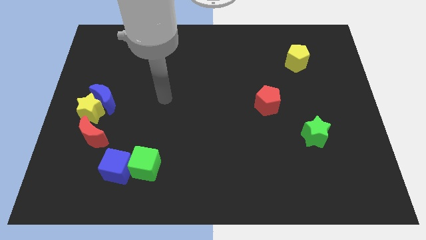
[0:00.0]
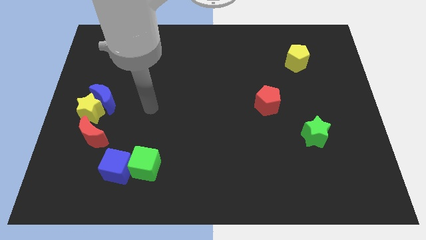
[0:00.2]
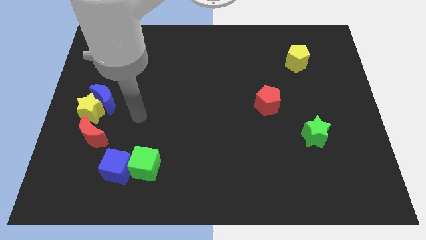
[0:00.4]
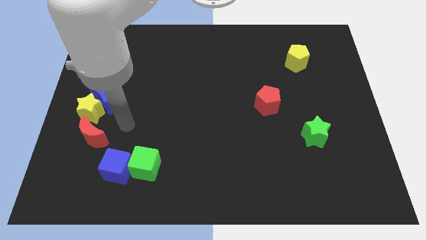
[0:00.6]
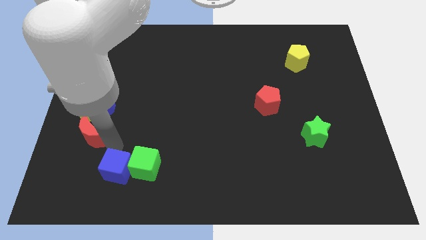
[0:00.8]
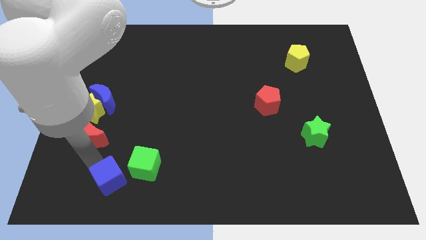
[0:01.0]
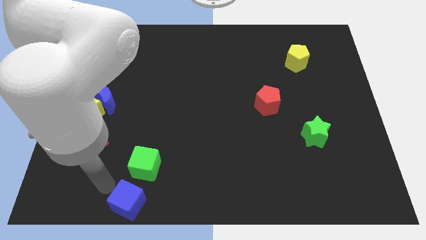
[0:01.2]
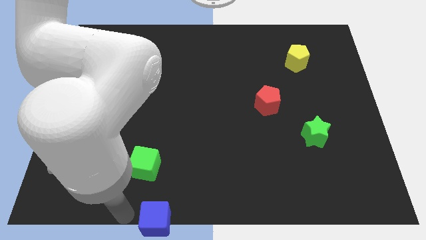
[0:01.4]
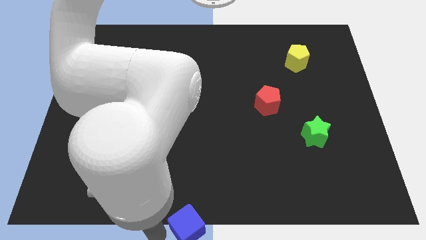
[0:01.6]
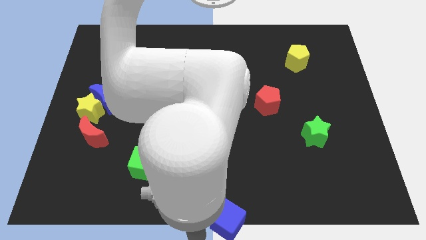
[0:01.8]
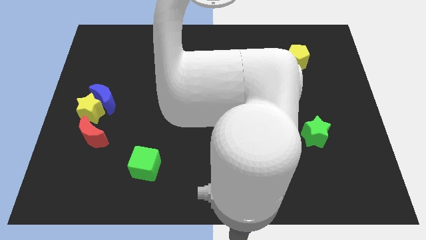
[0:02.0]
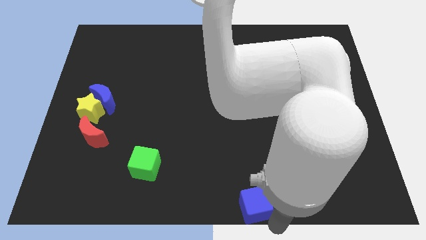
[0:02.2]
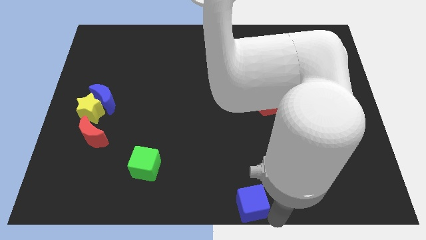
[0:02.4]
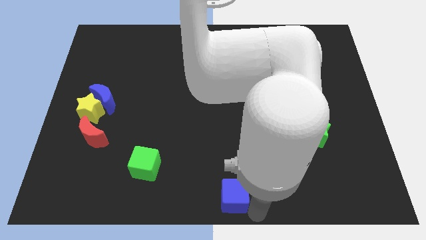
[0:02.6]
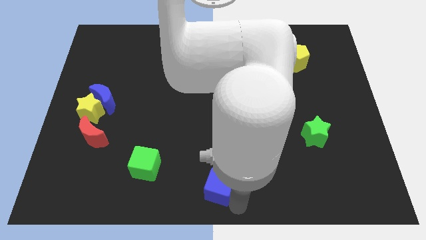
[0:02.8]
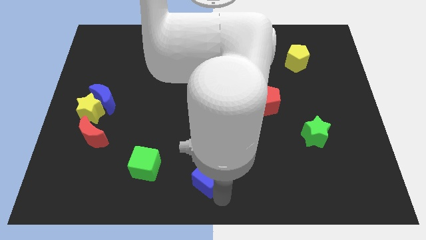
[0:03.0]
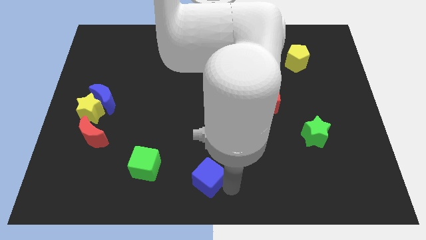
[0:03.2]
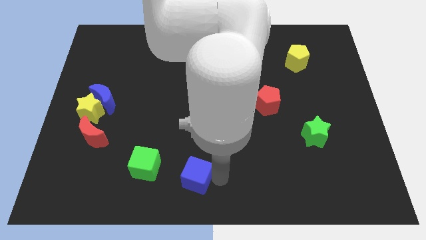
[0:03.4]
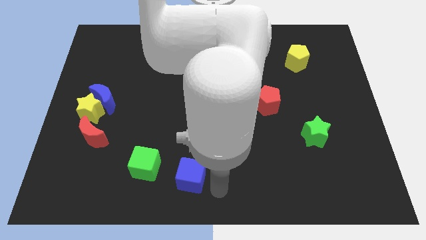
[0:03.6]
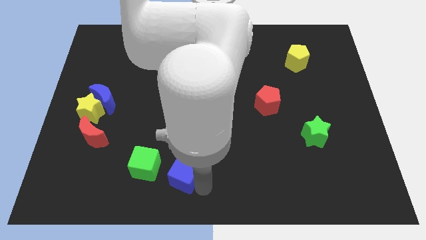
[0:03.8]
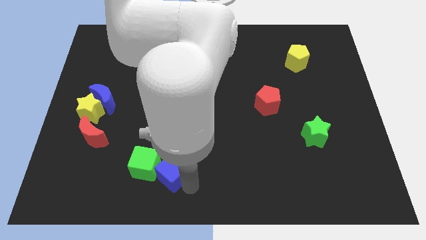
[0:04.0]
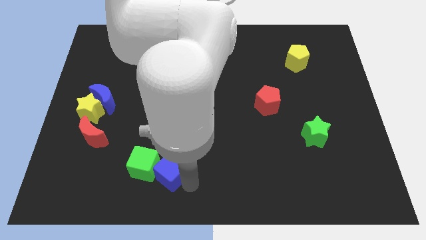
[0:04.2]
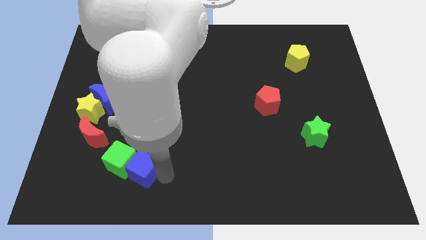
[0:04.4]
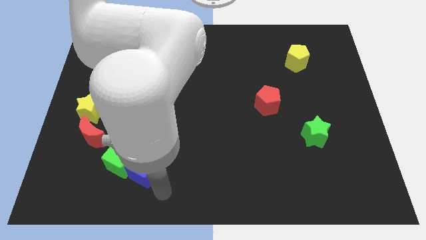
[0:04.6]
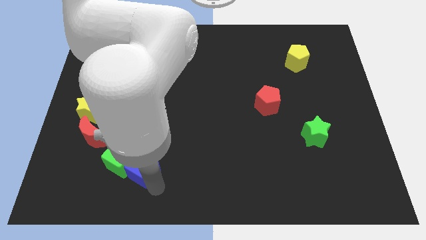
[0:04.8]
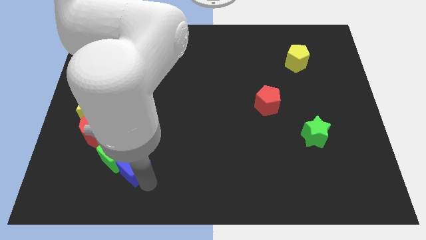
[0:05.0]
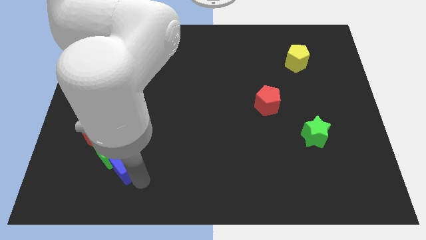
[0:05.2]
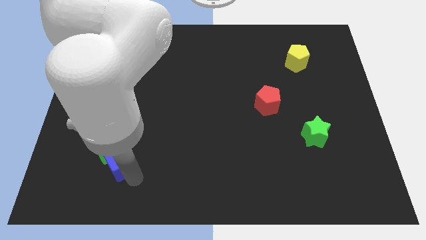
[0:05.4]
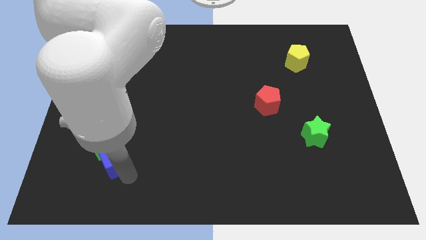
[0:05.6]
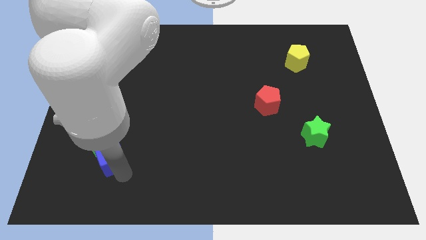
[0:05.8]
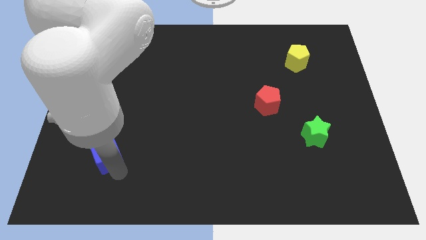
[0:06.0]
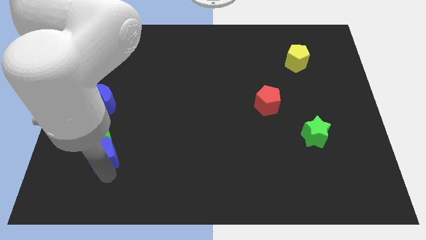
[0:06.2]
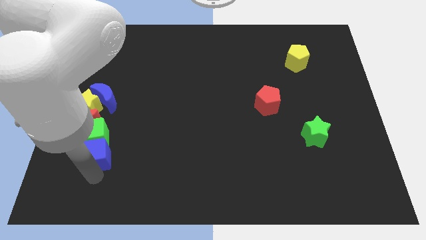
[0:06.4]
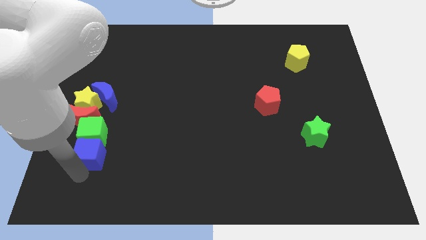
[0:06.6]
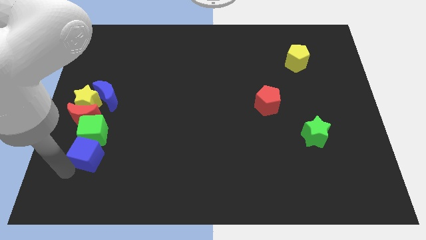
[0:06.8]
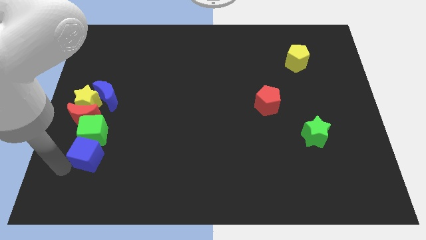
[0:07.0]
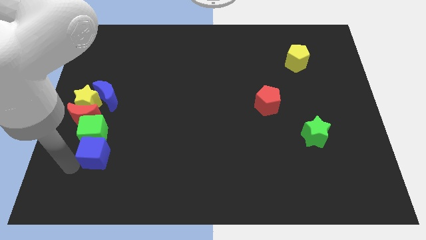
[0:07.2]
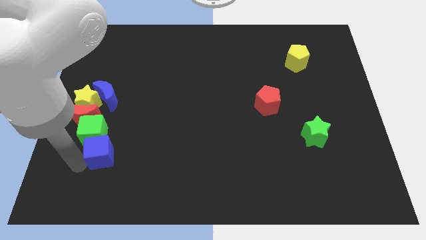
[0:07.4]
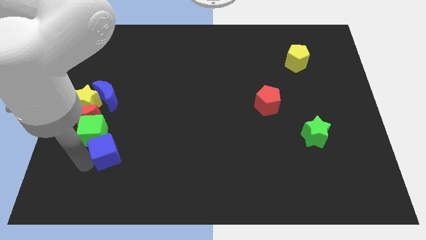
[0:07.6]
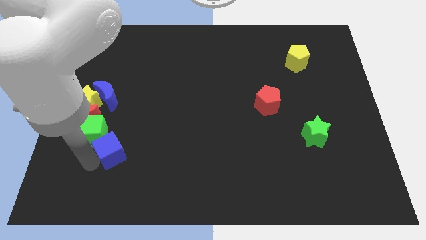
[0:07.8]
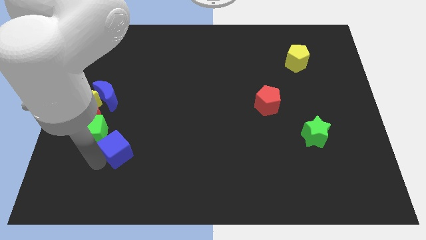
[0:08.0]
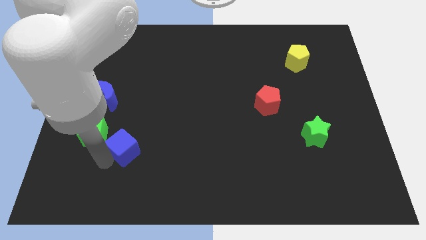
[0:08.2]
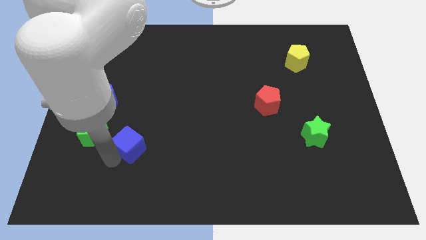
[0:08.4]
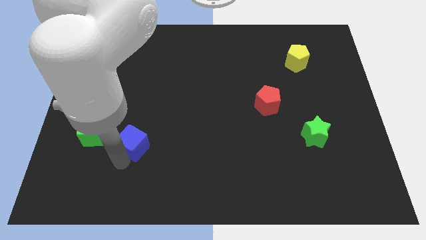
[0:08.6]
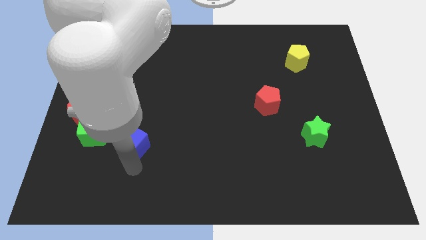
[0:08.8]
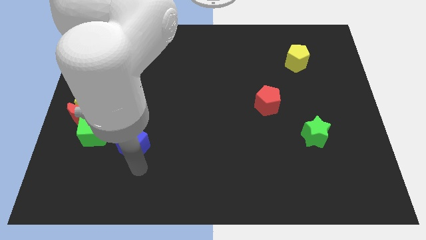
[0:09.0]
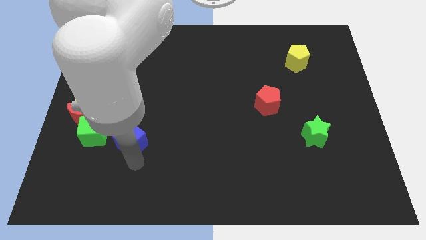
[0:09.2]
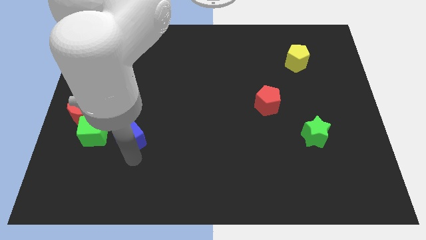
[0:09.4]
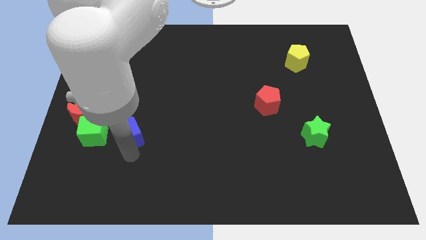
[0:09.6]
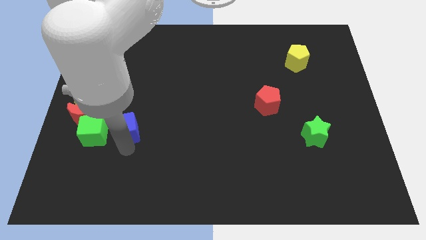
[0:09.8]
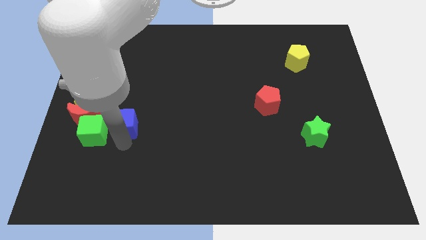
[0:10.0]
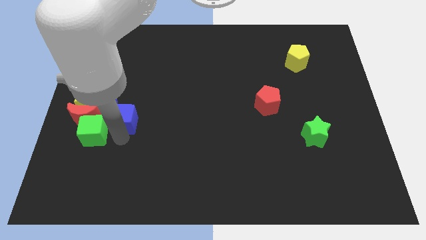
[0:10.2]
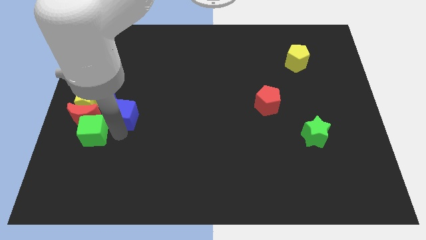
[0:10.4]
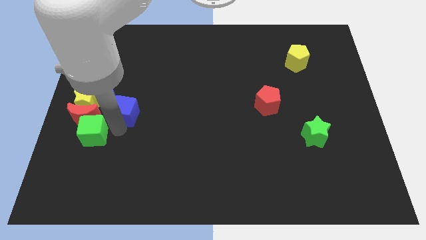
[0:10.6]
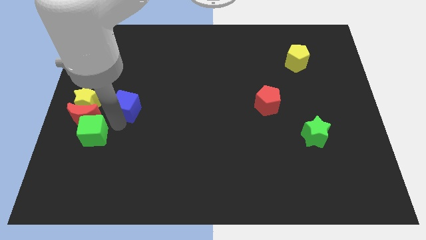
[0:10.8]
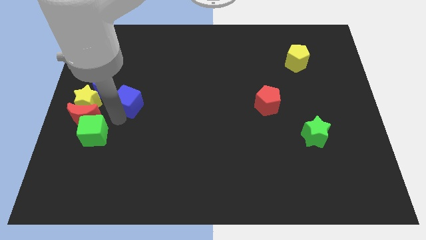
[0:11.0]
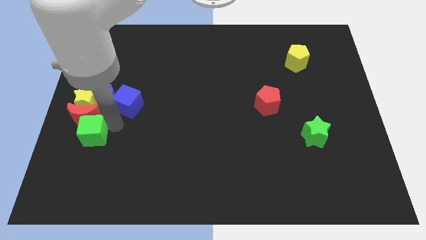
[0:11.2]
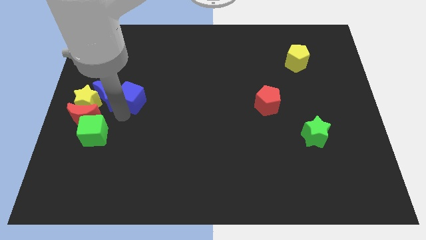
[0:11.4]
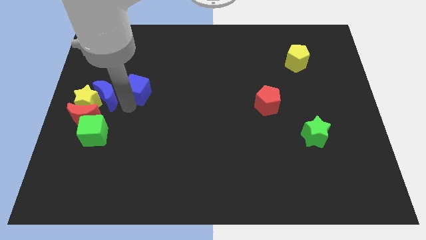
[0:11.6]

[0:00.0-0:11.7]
move the blue cube up

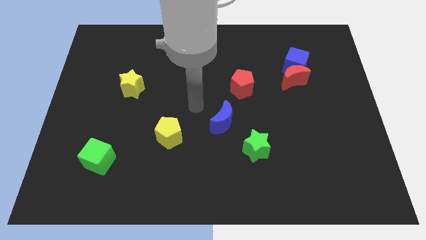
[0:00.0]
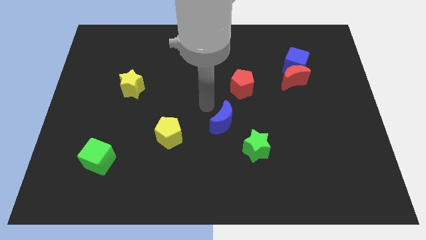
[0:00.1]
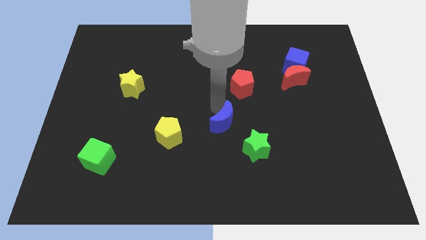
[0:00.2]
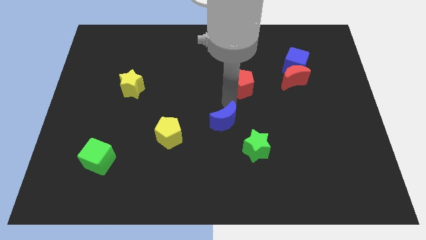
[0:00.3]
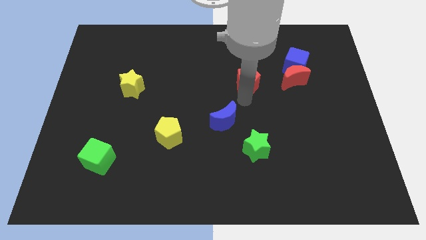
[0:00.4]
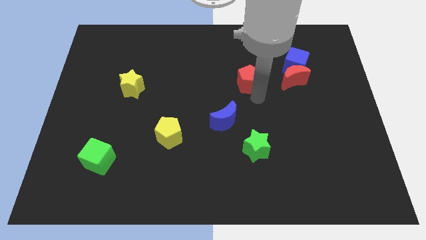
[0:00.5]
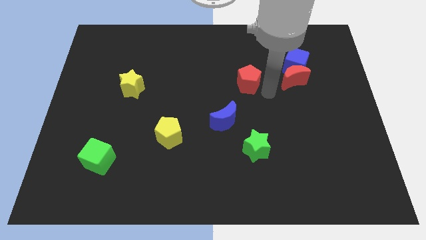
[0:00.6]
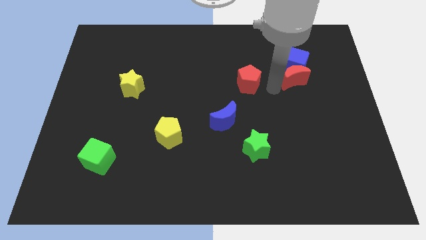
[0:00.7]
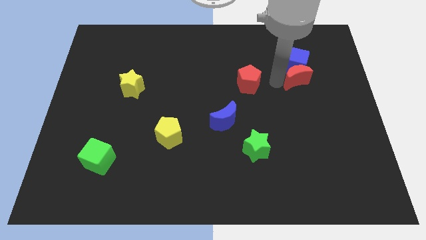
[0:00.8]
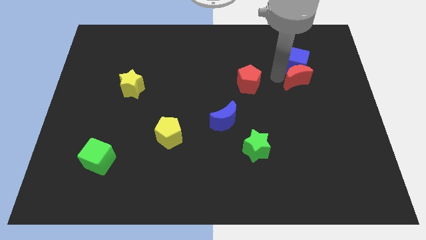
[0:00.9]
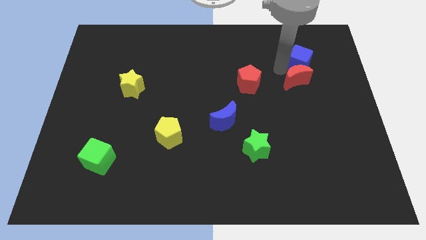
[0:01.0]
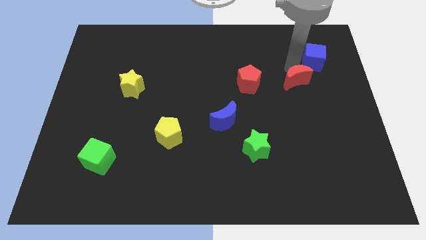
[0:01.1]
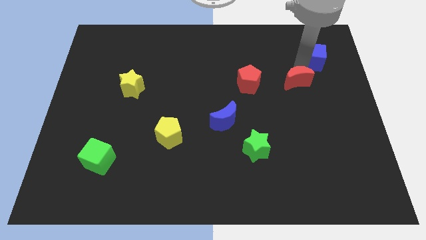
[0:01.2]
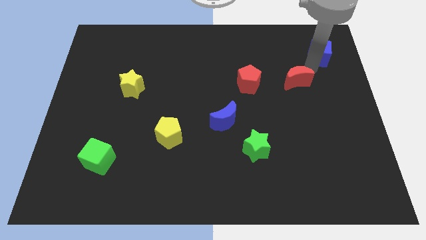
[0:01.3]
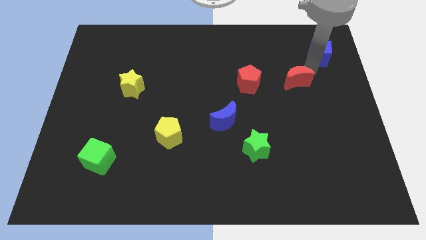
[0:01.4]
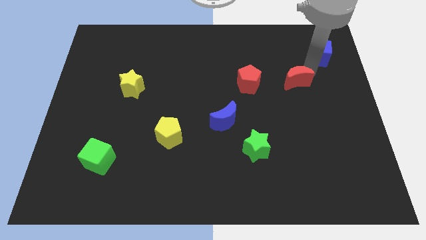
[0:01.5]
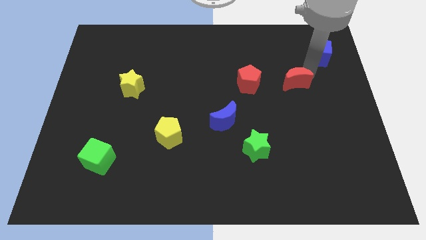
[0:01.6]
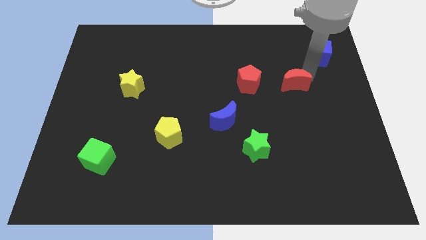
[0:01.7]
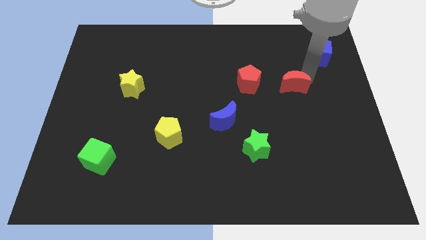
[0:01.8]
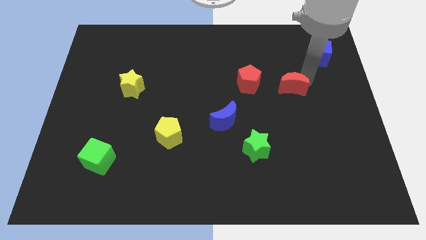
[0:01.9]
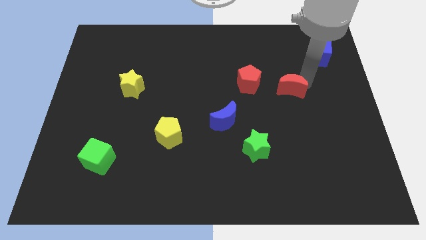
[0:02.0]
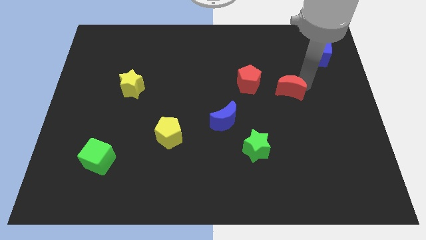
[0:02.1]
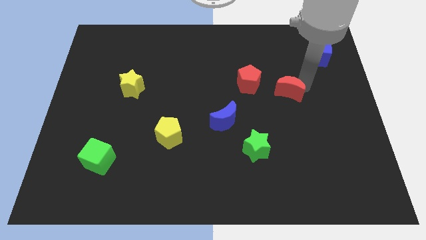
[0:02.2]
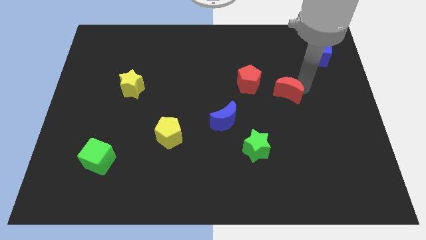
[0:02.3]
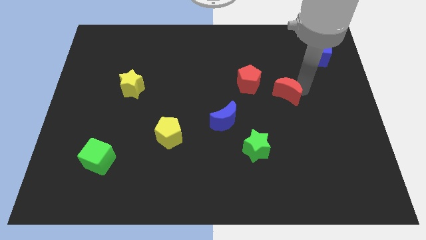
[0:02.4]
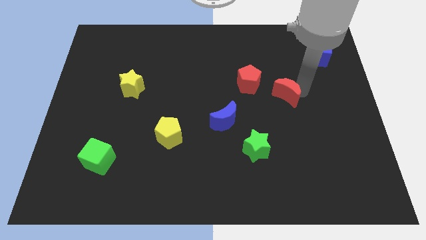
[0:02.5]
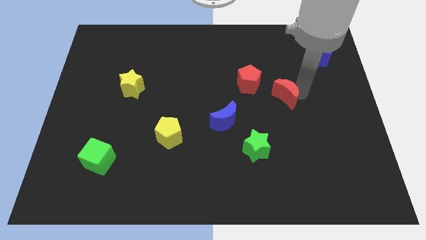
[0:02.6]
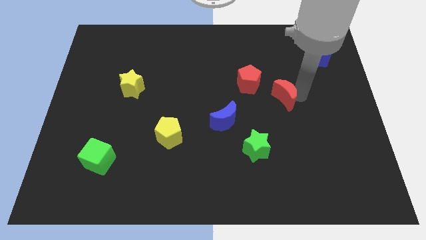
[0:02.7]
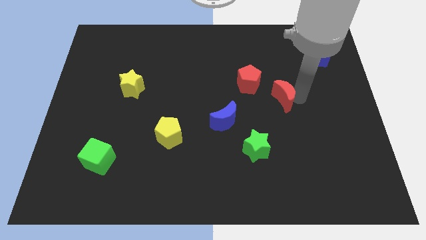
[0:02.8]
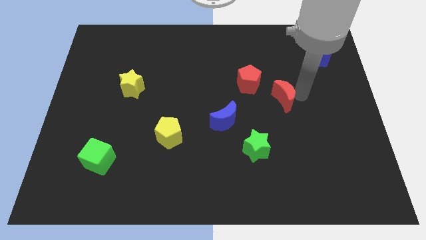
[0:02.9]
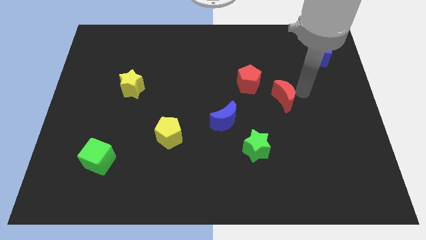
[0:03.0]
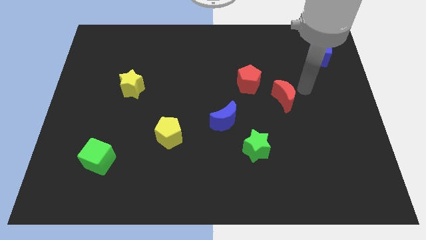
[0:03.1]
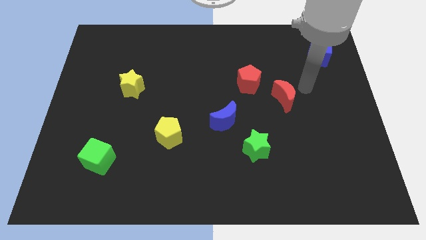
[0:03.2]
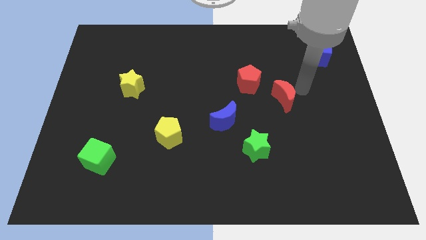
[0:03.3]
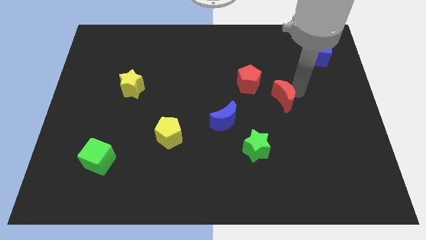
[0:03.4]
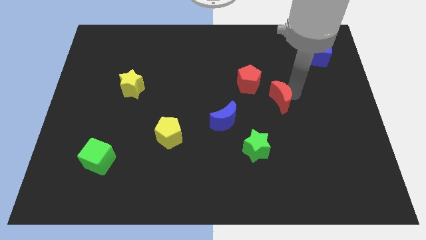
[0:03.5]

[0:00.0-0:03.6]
slightly move the red moon downwards and left
